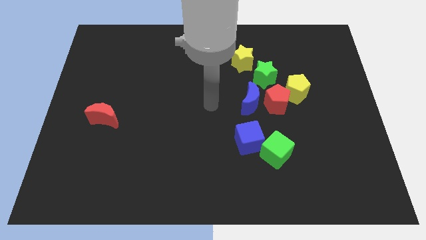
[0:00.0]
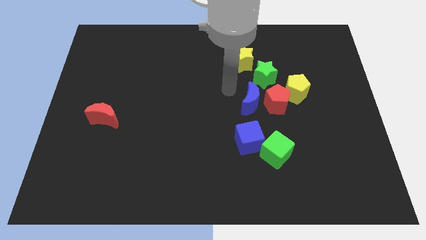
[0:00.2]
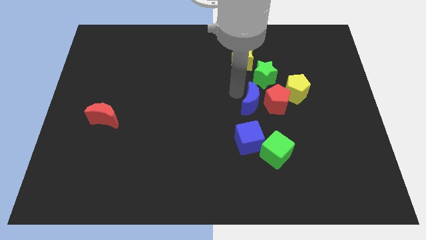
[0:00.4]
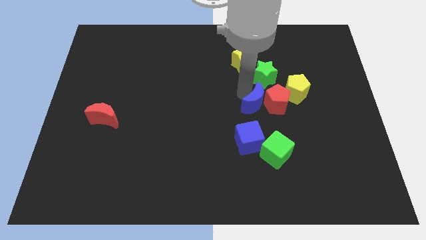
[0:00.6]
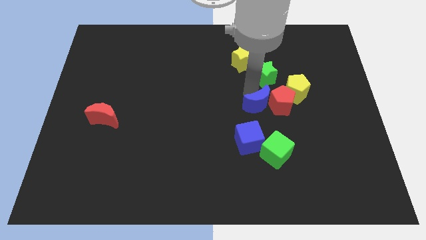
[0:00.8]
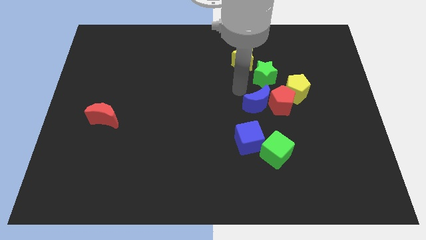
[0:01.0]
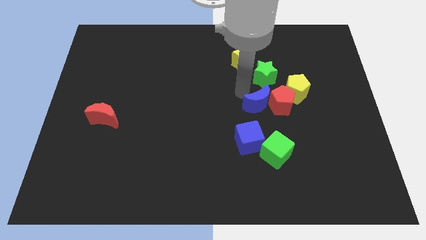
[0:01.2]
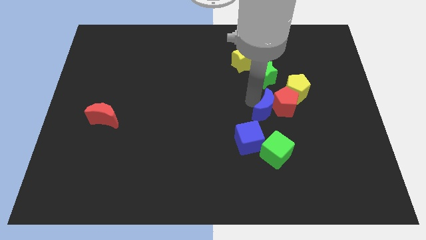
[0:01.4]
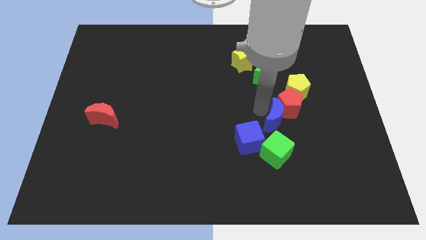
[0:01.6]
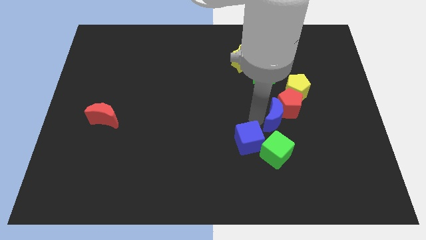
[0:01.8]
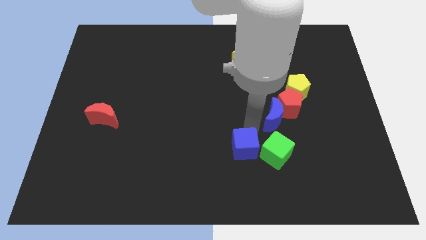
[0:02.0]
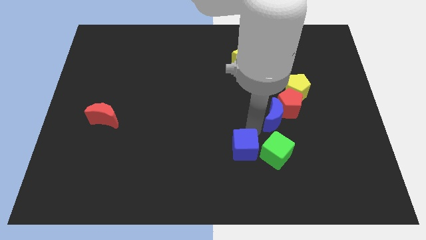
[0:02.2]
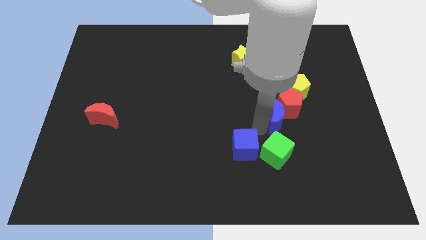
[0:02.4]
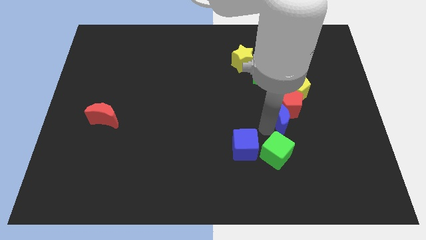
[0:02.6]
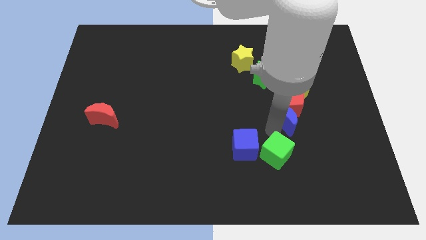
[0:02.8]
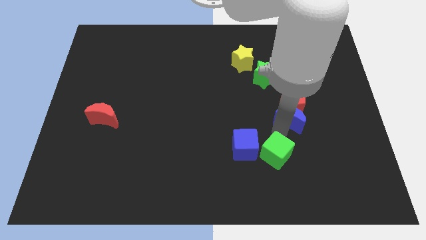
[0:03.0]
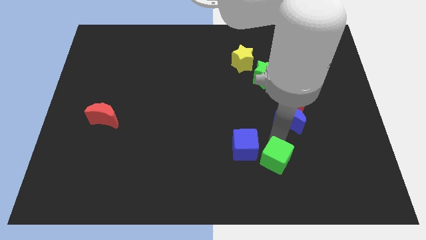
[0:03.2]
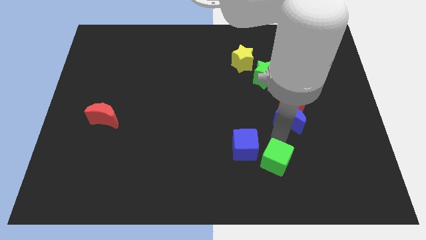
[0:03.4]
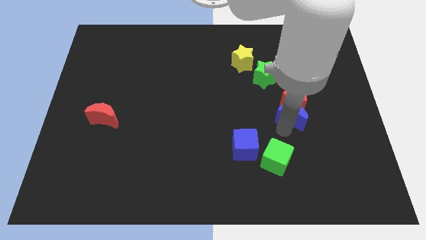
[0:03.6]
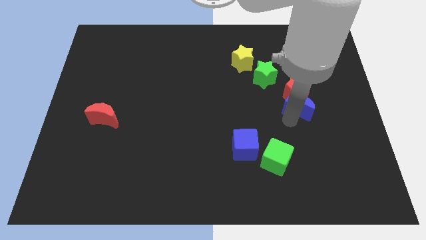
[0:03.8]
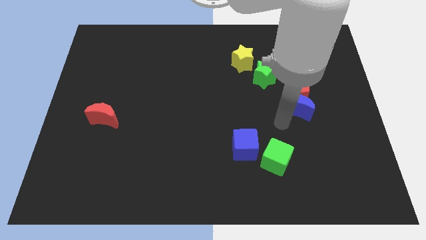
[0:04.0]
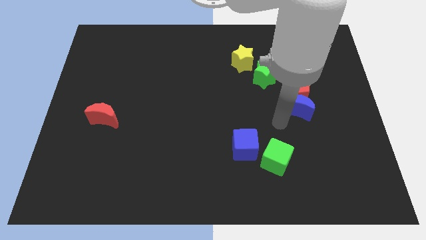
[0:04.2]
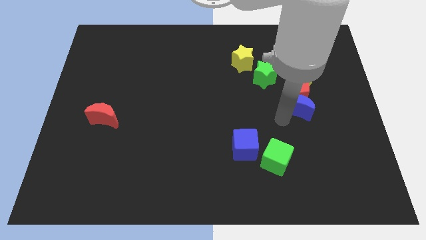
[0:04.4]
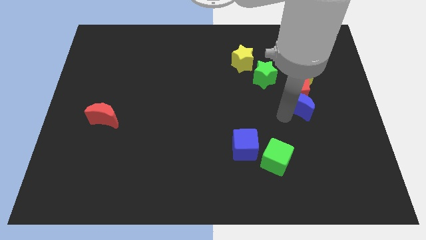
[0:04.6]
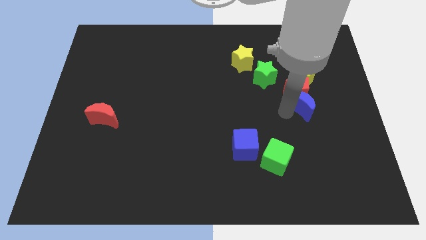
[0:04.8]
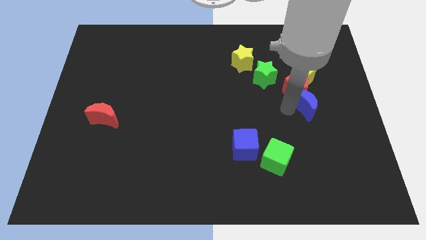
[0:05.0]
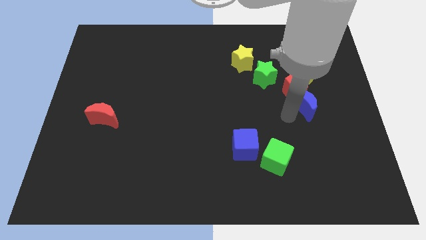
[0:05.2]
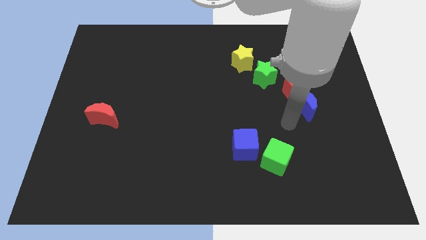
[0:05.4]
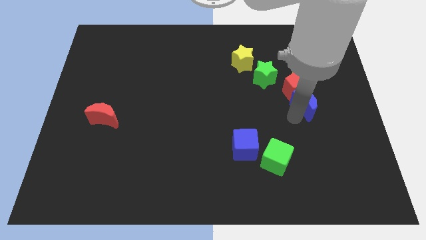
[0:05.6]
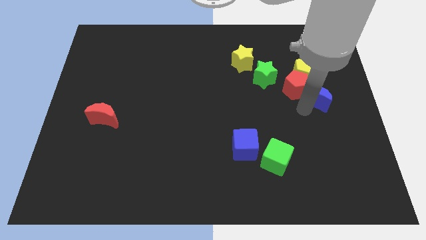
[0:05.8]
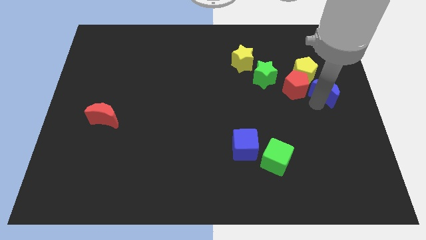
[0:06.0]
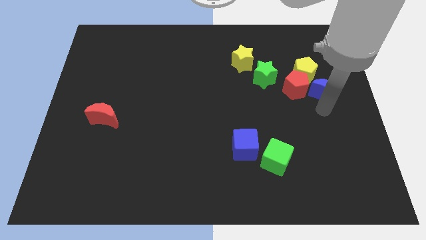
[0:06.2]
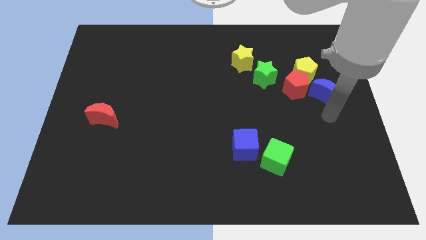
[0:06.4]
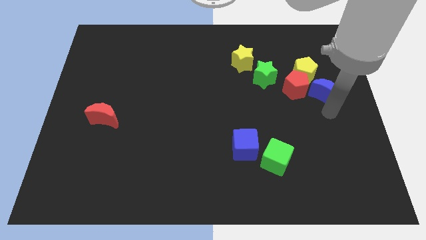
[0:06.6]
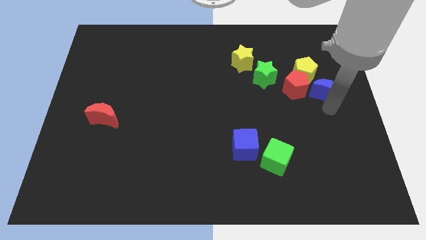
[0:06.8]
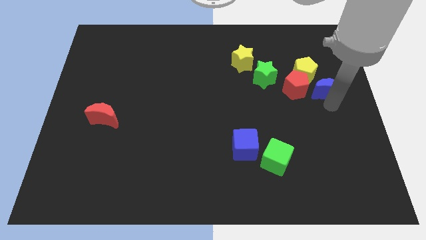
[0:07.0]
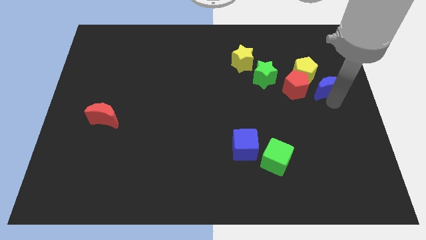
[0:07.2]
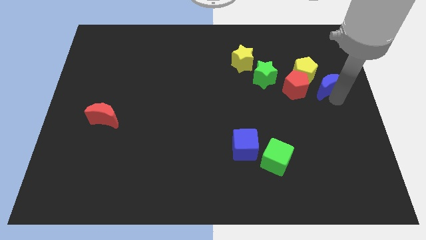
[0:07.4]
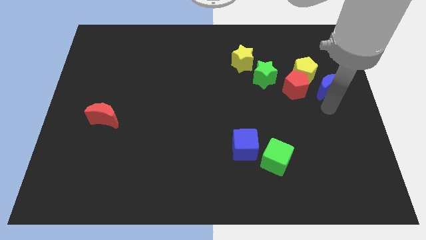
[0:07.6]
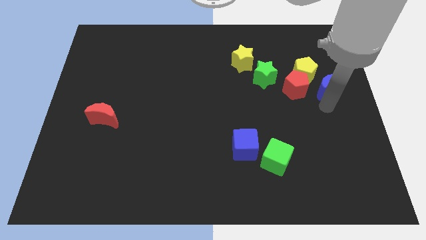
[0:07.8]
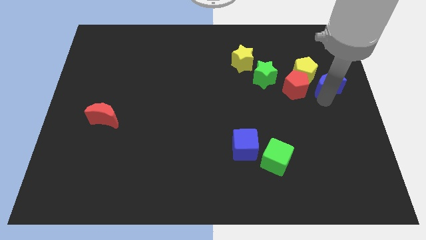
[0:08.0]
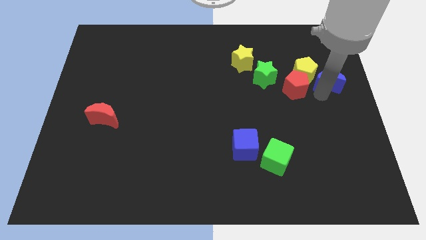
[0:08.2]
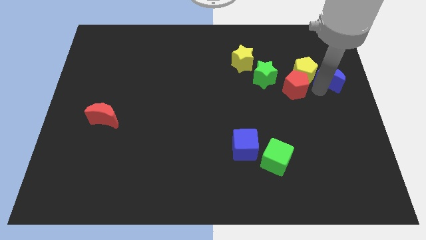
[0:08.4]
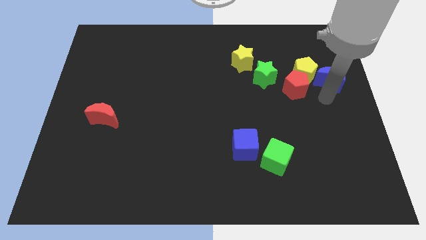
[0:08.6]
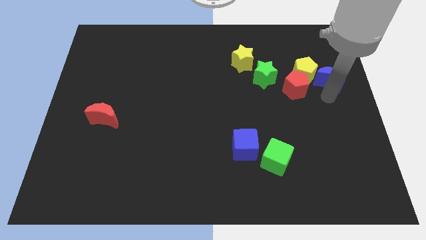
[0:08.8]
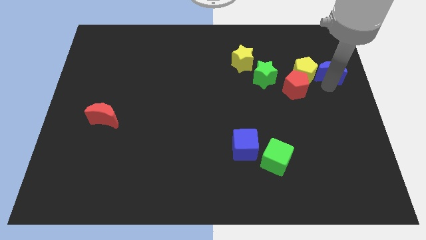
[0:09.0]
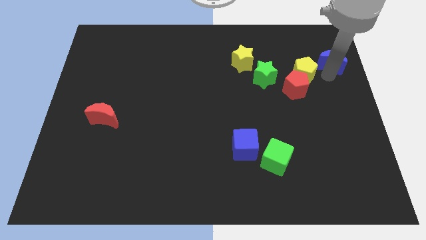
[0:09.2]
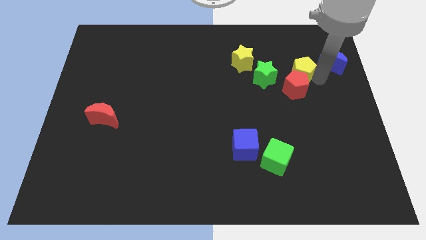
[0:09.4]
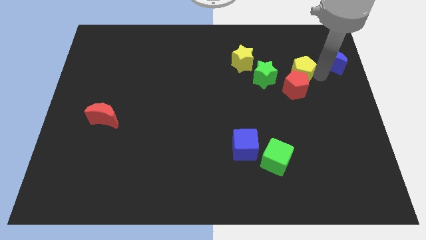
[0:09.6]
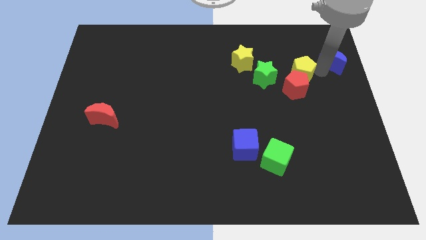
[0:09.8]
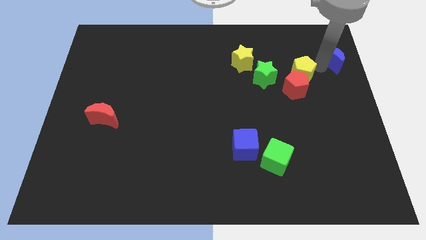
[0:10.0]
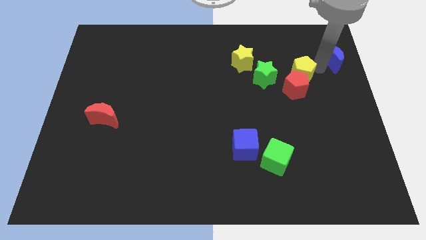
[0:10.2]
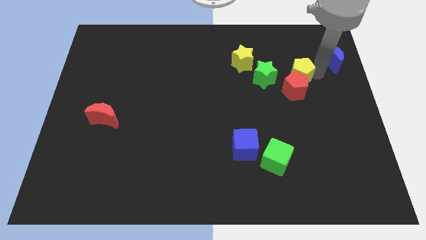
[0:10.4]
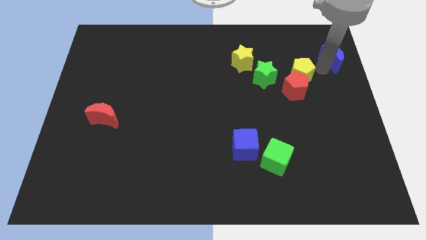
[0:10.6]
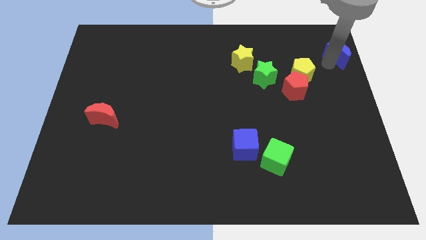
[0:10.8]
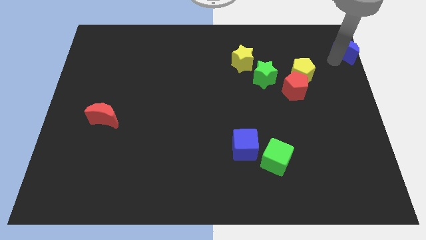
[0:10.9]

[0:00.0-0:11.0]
push the blue moon to the upper right corner

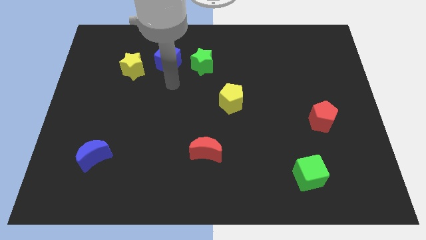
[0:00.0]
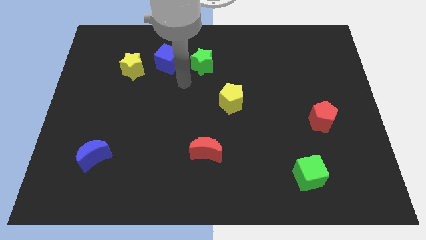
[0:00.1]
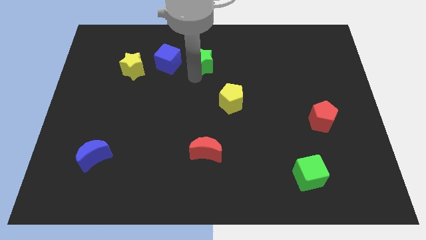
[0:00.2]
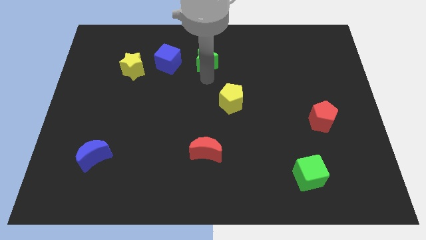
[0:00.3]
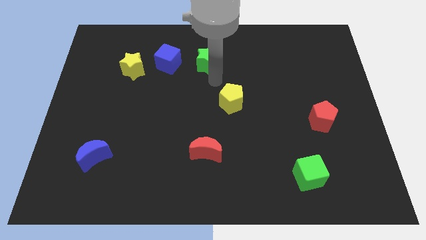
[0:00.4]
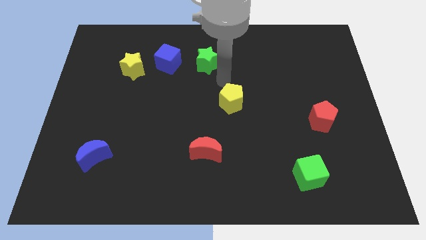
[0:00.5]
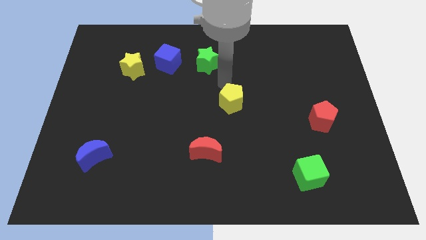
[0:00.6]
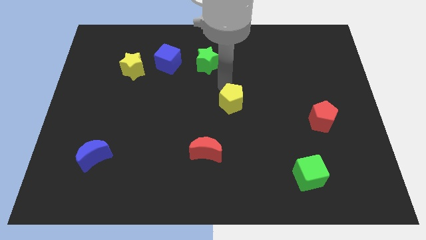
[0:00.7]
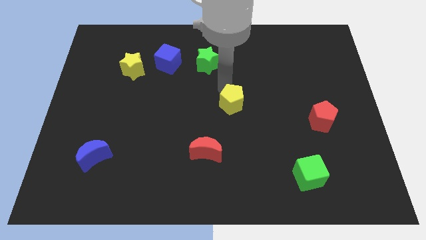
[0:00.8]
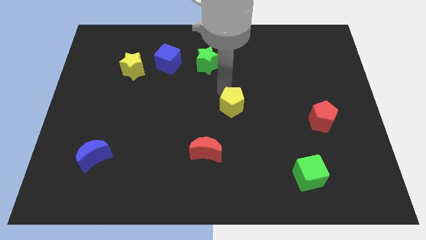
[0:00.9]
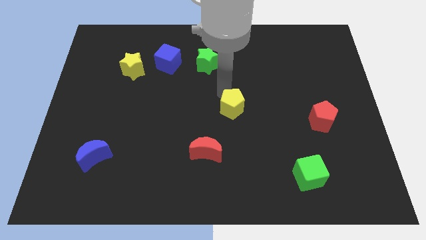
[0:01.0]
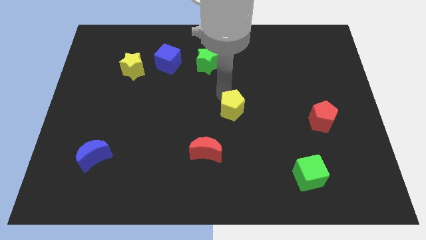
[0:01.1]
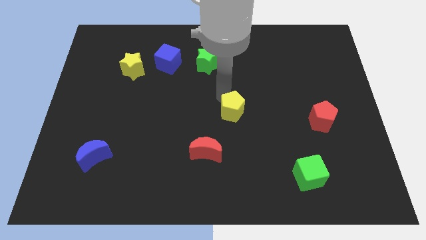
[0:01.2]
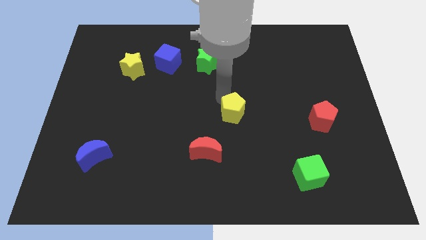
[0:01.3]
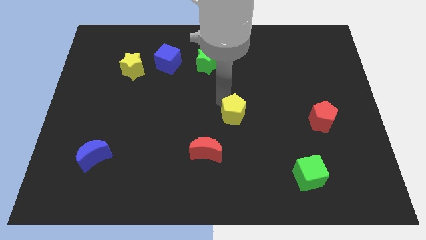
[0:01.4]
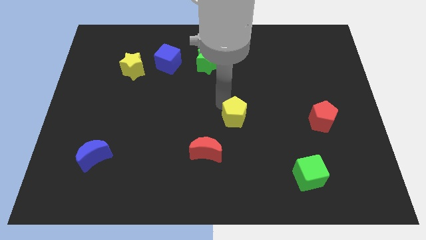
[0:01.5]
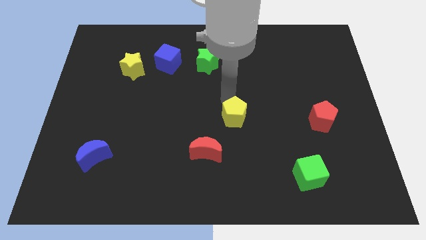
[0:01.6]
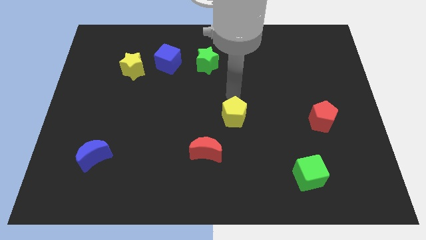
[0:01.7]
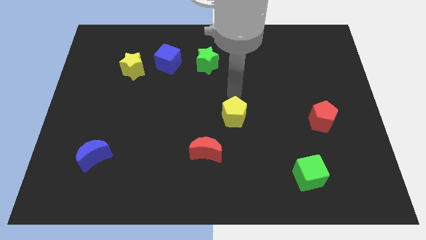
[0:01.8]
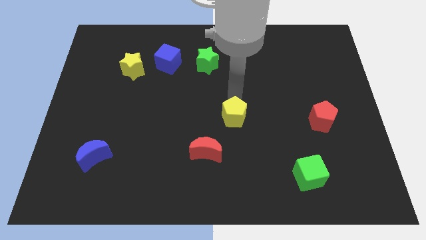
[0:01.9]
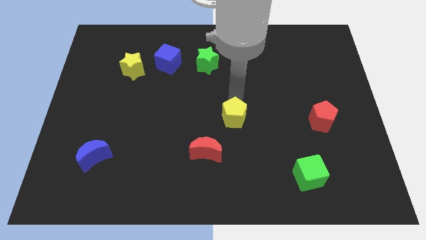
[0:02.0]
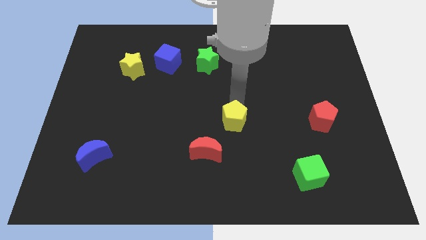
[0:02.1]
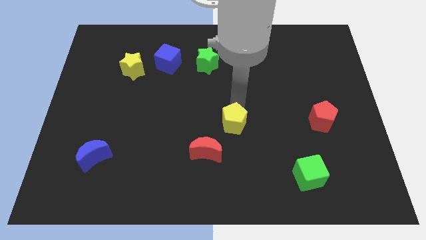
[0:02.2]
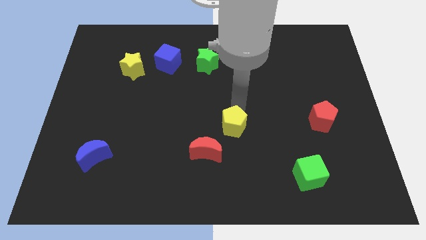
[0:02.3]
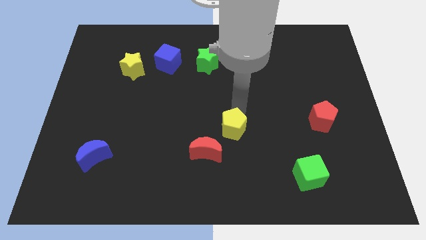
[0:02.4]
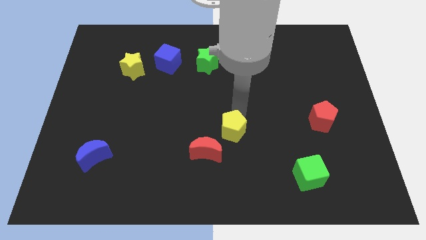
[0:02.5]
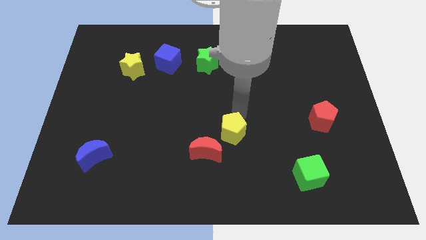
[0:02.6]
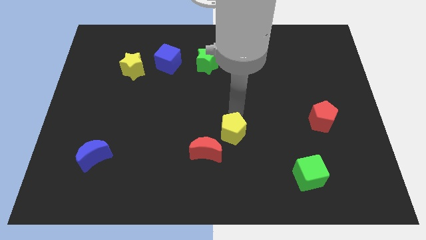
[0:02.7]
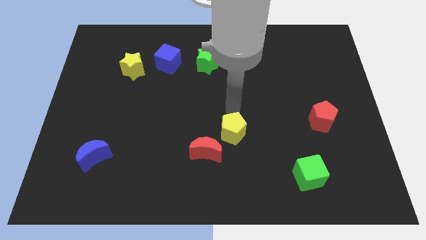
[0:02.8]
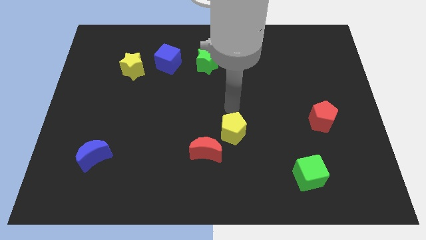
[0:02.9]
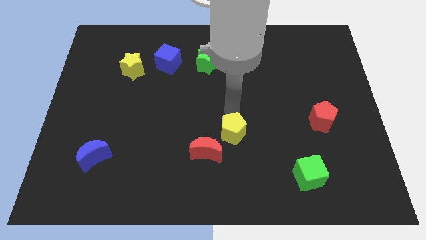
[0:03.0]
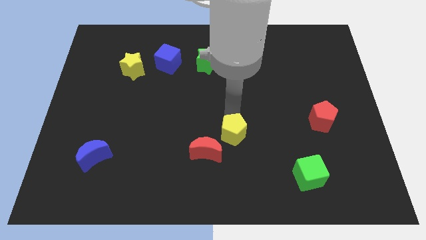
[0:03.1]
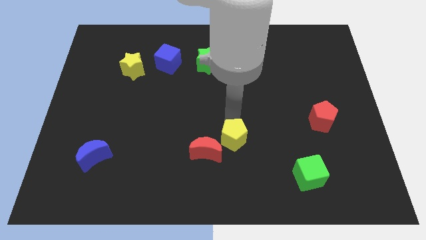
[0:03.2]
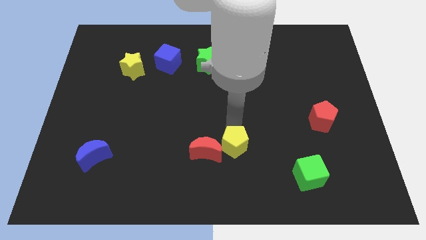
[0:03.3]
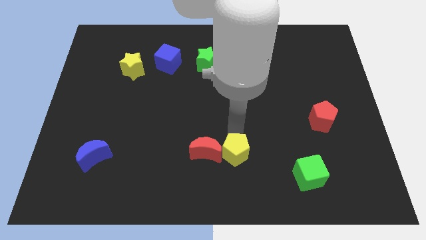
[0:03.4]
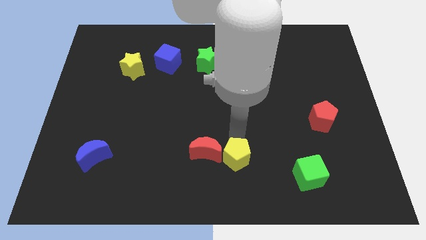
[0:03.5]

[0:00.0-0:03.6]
move the yellow pentagon to the bottom side
